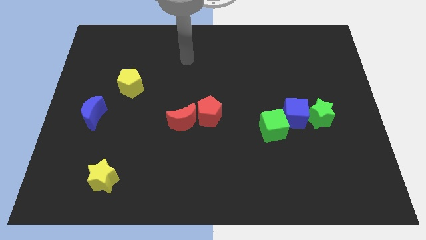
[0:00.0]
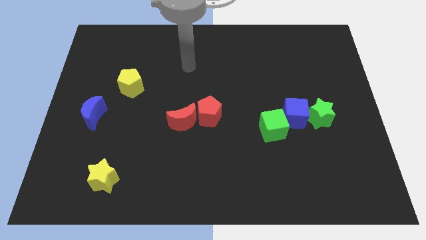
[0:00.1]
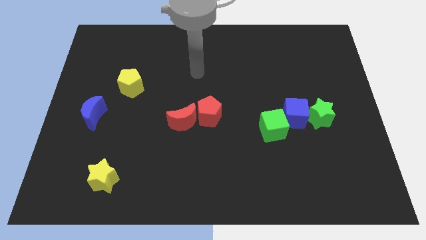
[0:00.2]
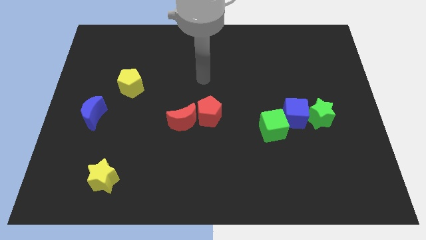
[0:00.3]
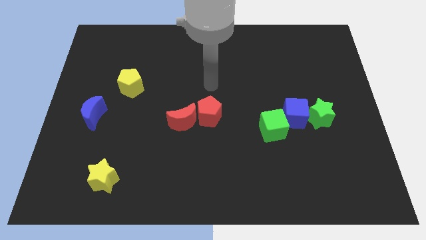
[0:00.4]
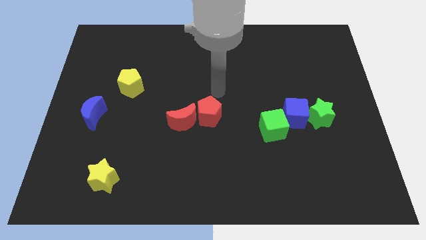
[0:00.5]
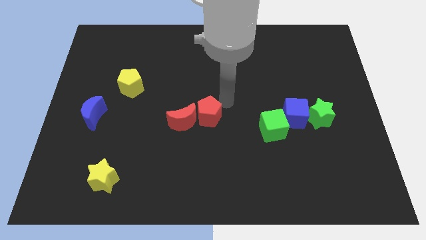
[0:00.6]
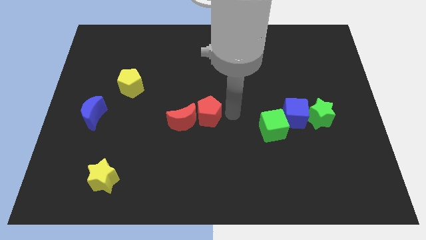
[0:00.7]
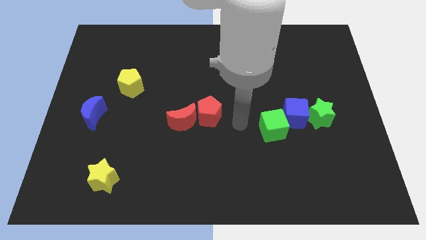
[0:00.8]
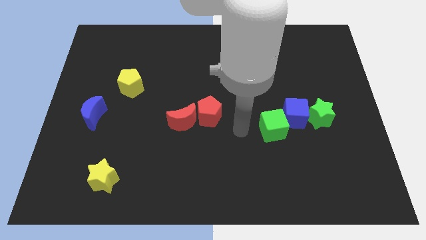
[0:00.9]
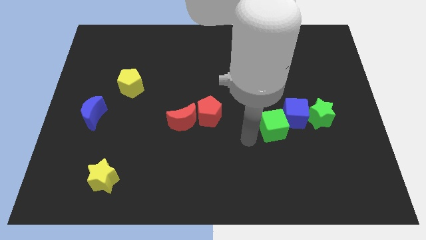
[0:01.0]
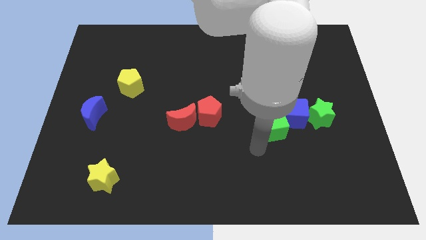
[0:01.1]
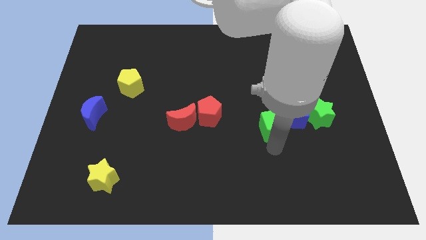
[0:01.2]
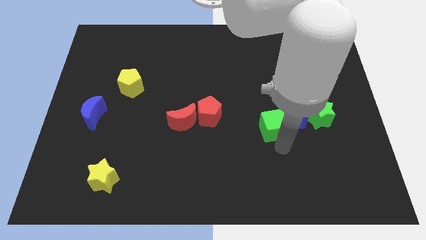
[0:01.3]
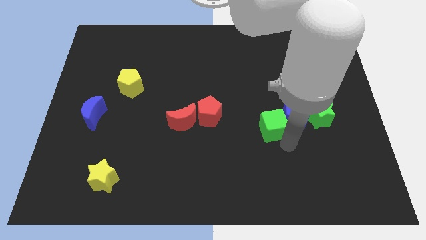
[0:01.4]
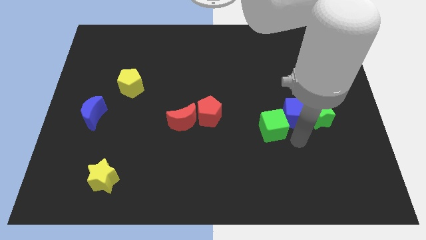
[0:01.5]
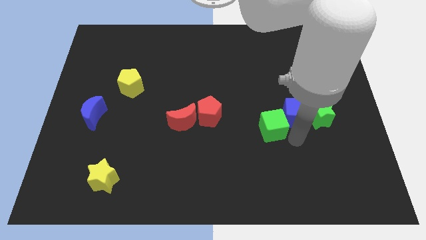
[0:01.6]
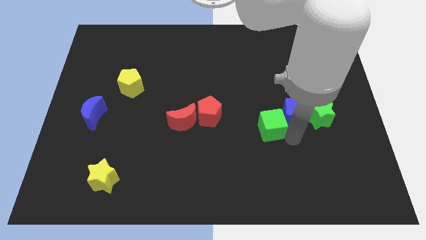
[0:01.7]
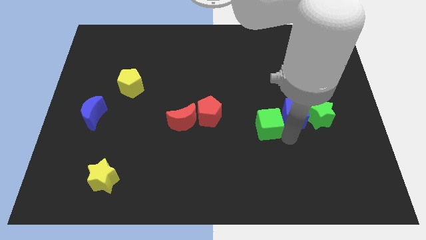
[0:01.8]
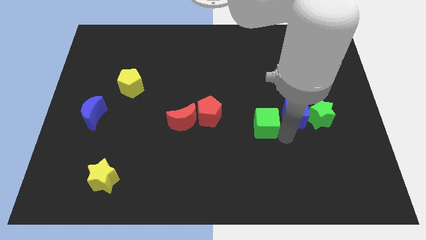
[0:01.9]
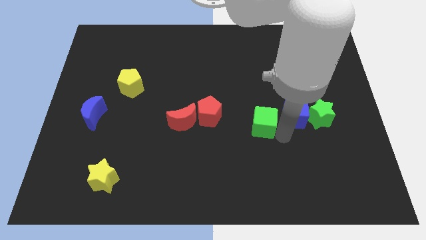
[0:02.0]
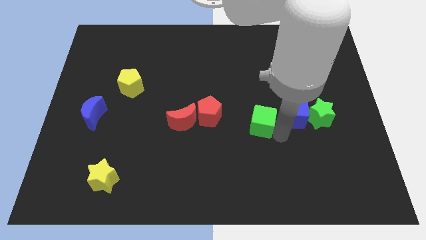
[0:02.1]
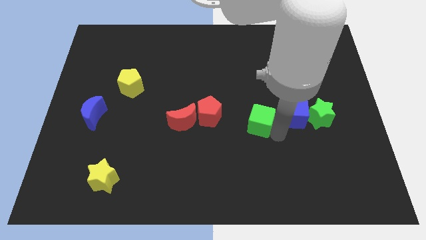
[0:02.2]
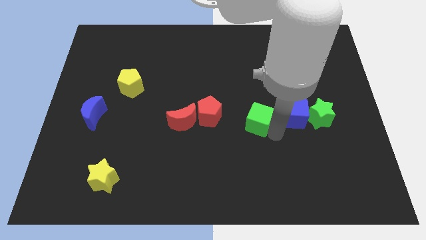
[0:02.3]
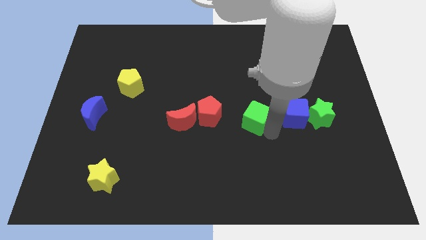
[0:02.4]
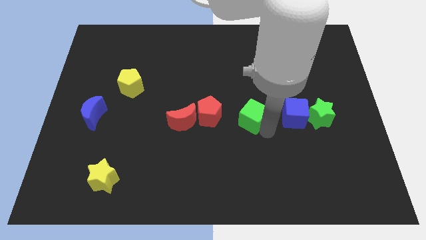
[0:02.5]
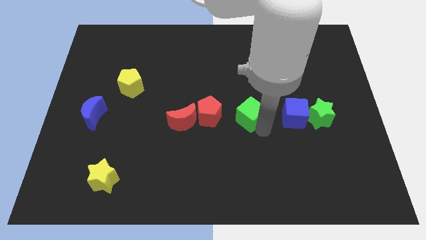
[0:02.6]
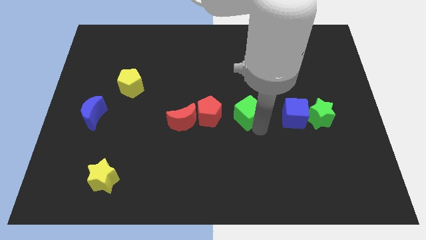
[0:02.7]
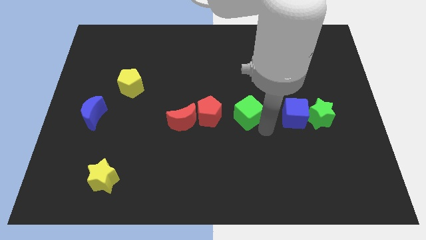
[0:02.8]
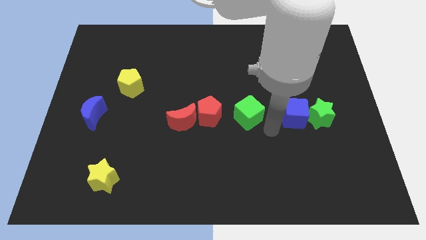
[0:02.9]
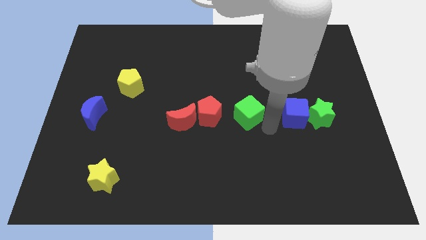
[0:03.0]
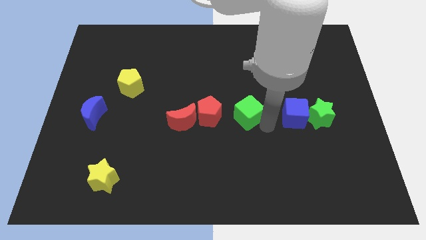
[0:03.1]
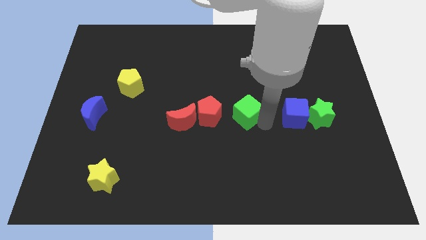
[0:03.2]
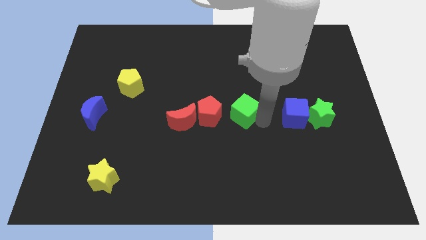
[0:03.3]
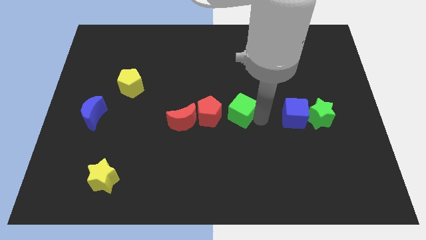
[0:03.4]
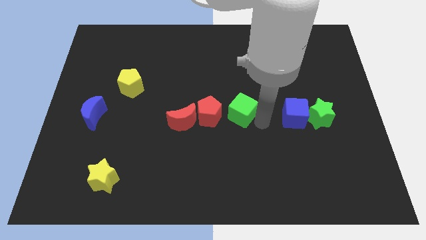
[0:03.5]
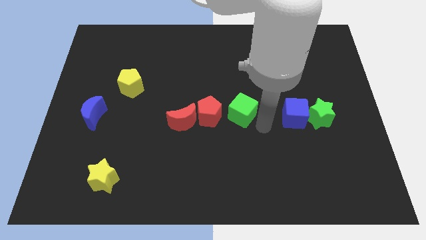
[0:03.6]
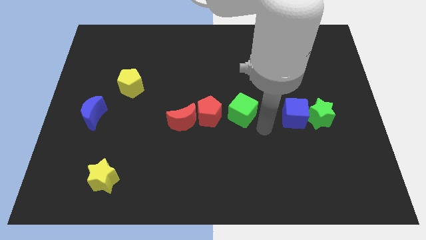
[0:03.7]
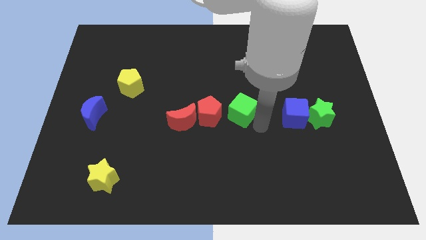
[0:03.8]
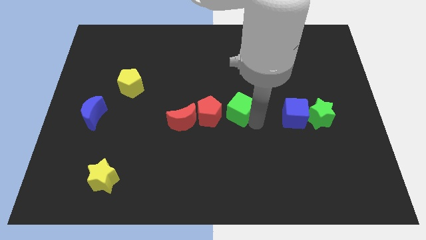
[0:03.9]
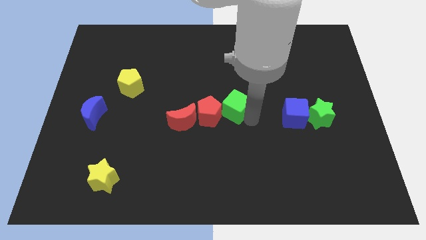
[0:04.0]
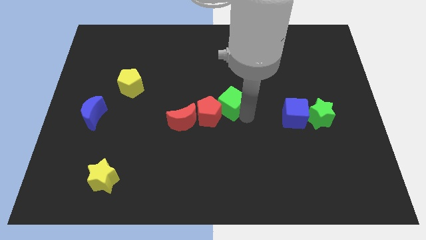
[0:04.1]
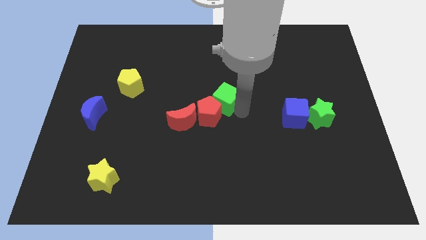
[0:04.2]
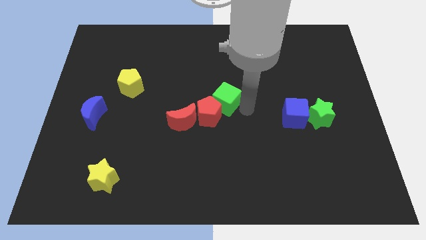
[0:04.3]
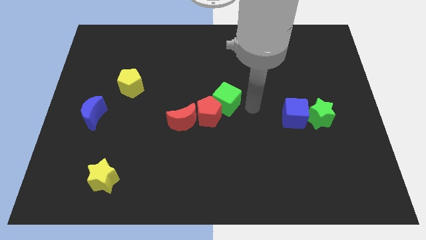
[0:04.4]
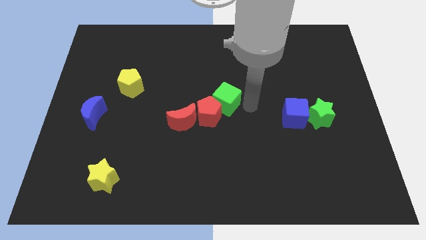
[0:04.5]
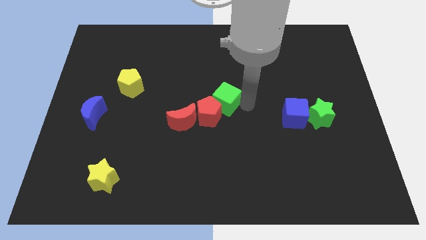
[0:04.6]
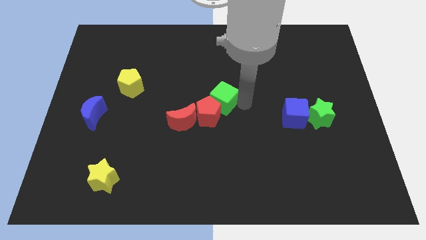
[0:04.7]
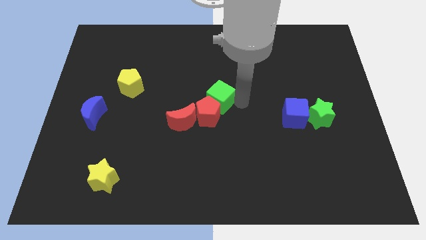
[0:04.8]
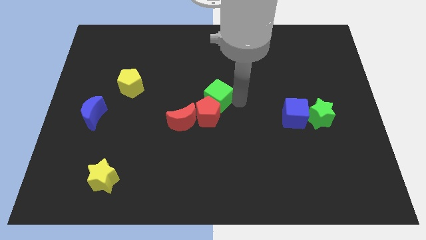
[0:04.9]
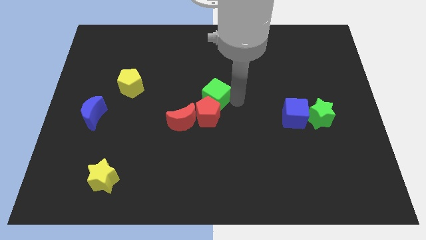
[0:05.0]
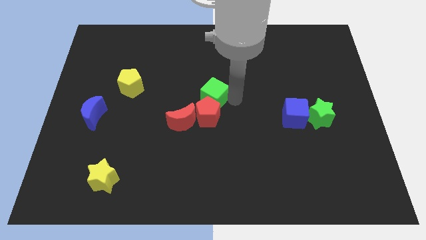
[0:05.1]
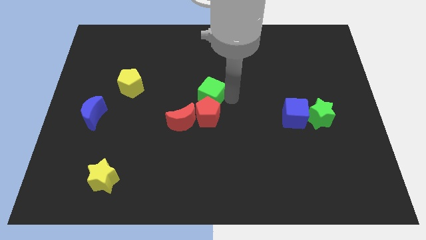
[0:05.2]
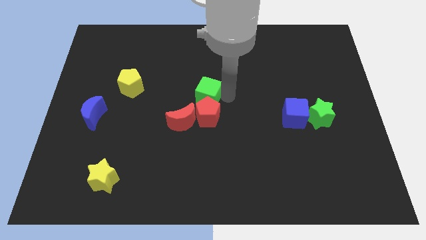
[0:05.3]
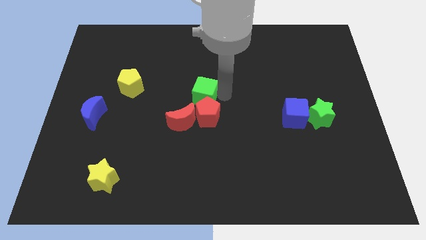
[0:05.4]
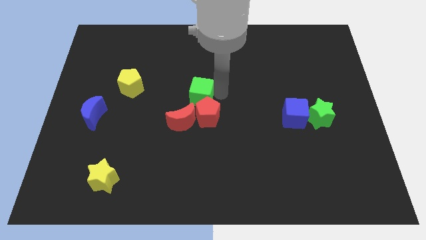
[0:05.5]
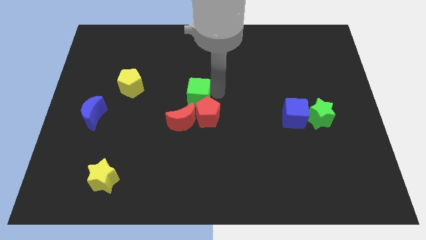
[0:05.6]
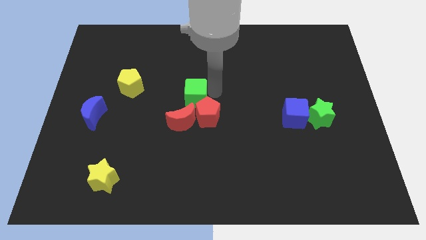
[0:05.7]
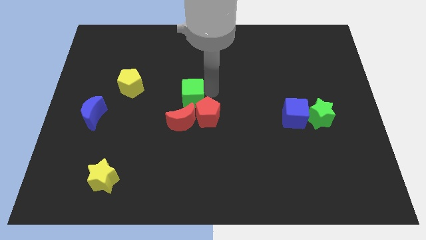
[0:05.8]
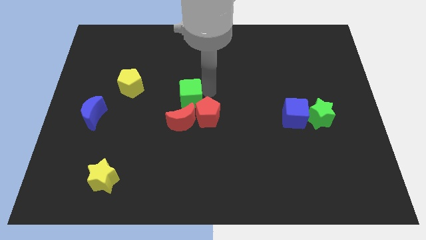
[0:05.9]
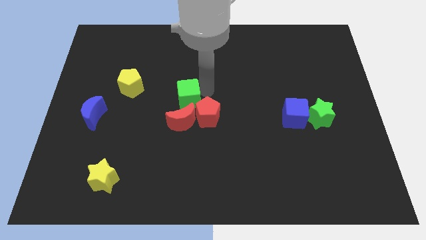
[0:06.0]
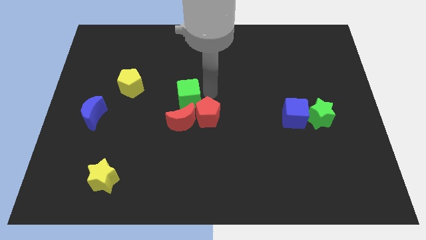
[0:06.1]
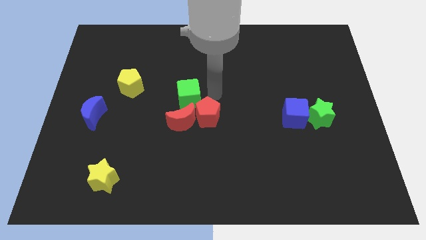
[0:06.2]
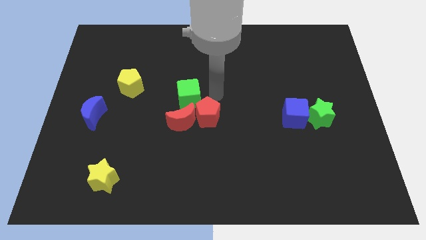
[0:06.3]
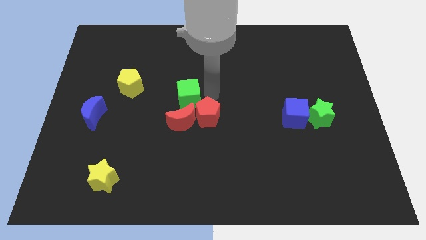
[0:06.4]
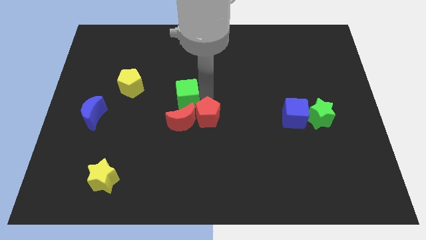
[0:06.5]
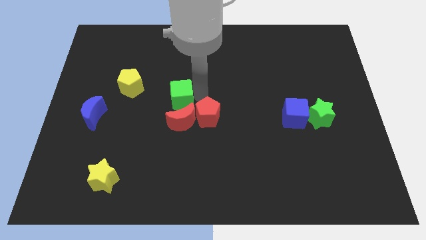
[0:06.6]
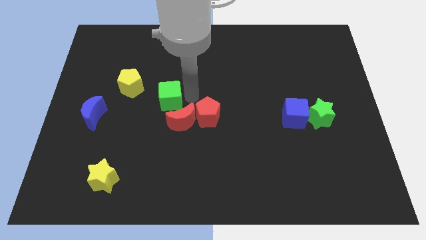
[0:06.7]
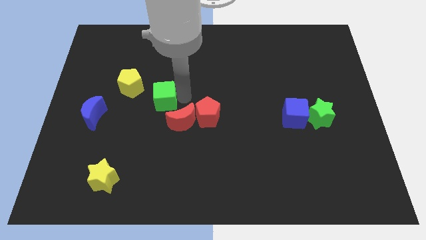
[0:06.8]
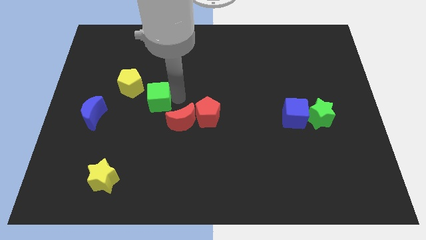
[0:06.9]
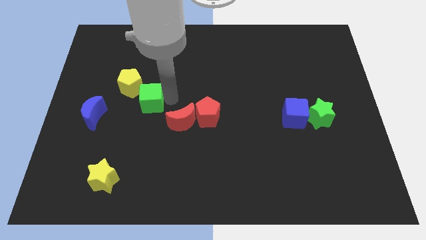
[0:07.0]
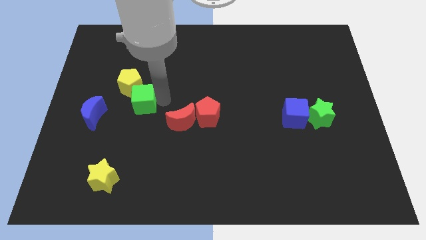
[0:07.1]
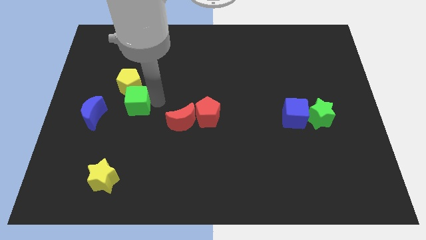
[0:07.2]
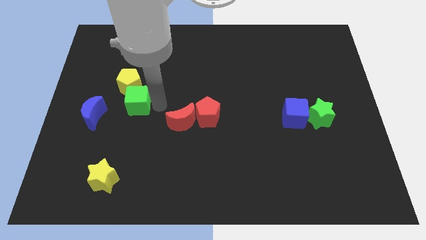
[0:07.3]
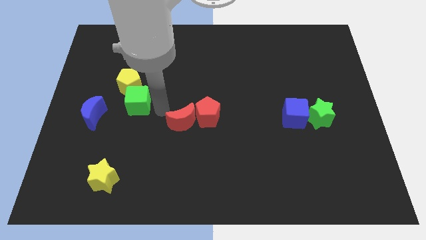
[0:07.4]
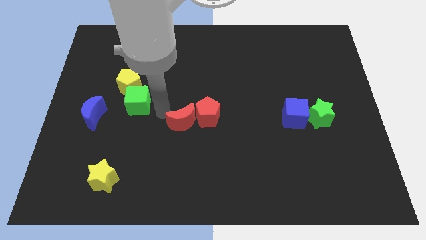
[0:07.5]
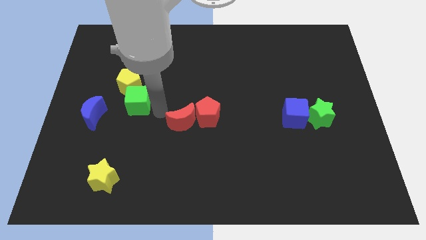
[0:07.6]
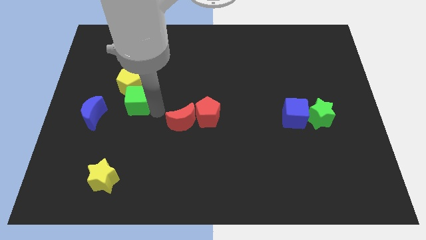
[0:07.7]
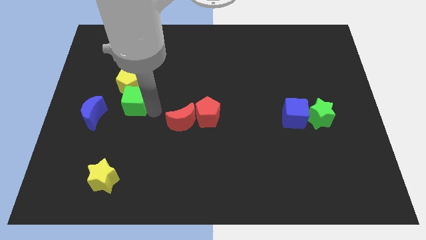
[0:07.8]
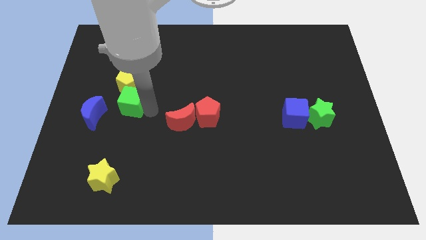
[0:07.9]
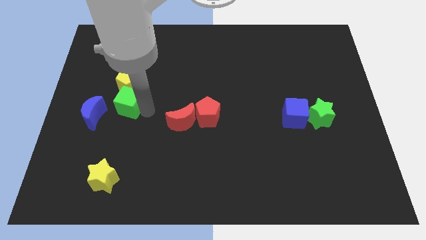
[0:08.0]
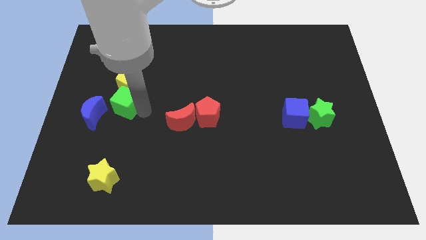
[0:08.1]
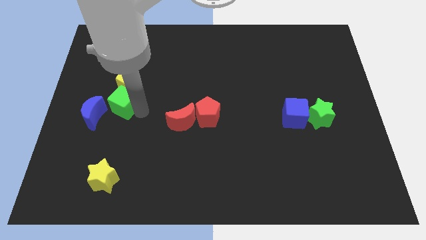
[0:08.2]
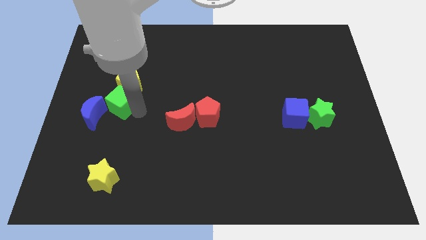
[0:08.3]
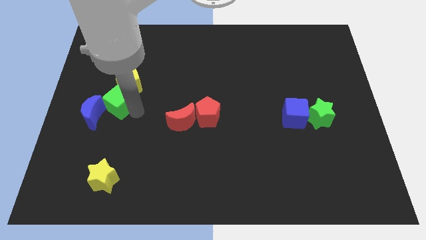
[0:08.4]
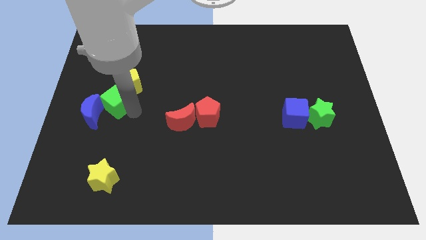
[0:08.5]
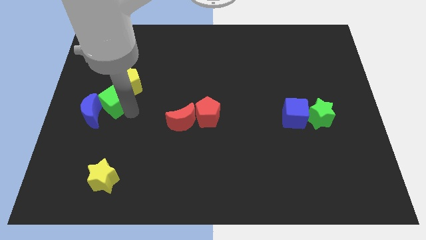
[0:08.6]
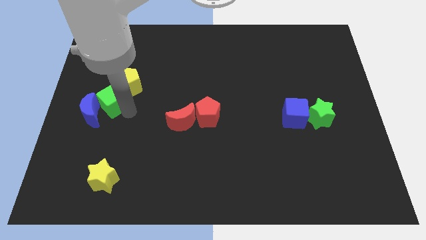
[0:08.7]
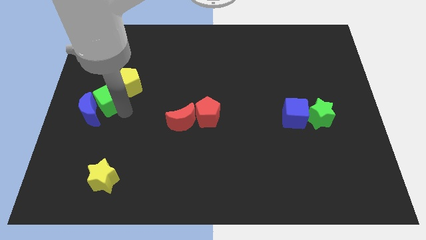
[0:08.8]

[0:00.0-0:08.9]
move the green cube to the top of the blue moon
